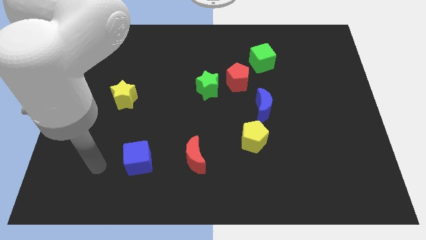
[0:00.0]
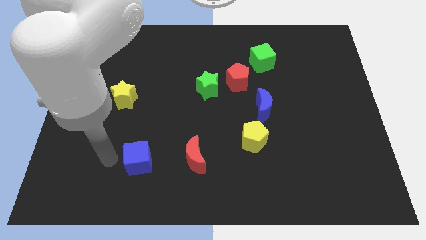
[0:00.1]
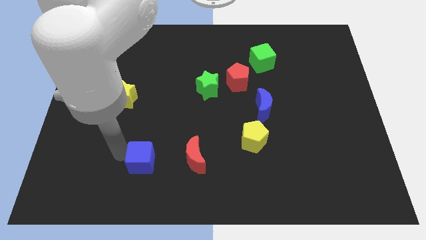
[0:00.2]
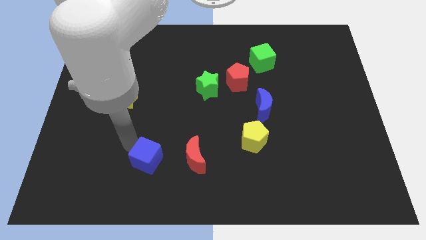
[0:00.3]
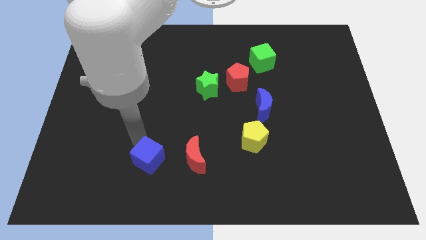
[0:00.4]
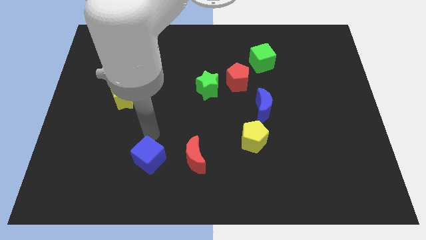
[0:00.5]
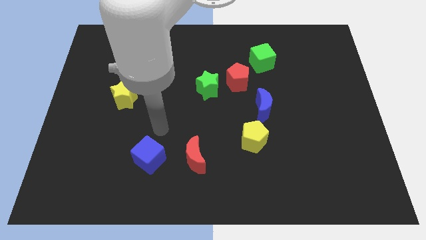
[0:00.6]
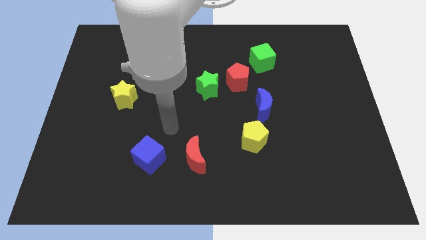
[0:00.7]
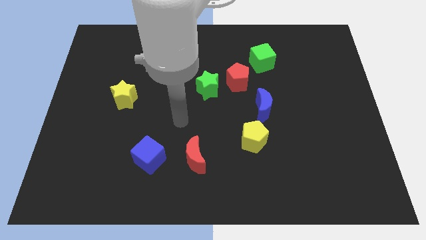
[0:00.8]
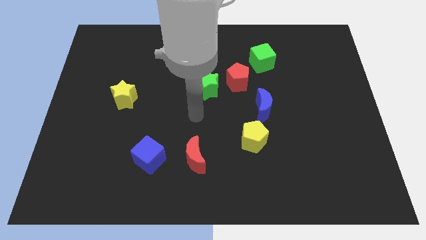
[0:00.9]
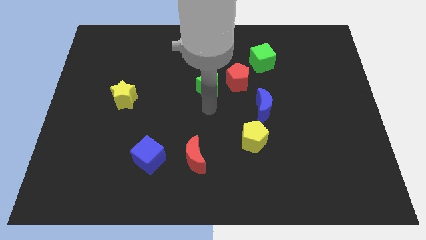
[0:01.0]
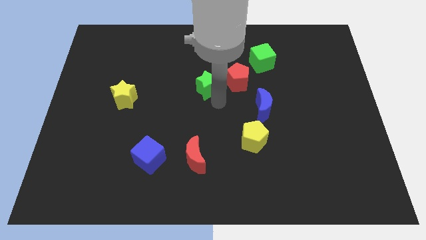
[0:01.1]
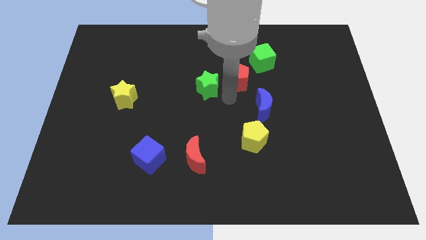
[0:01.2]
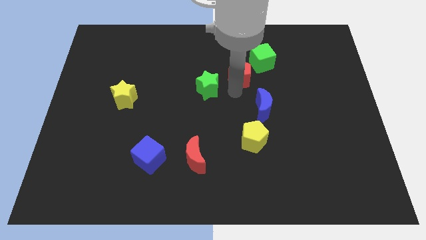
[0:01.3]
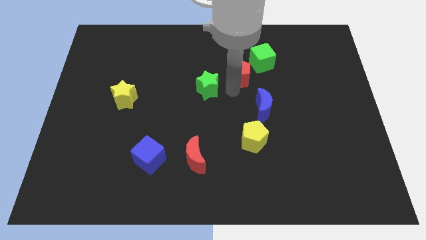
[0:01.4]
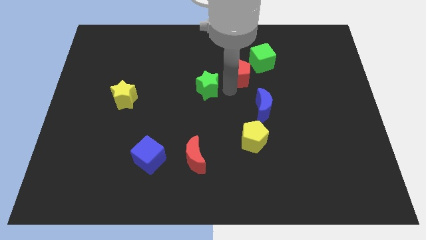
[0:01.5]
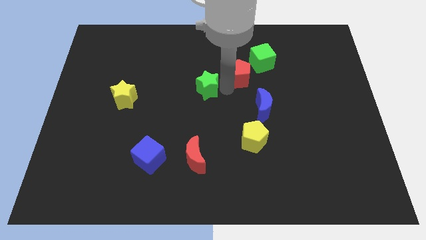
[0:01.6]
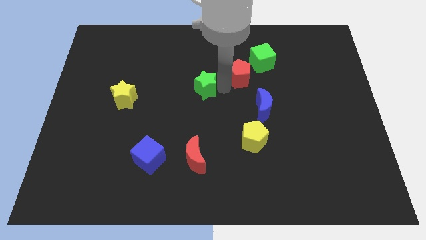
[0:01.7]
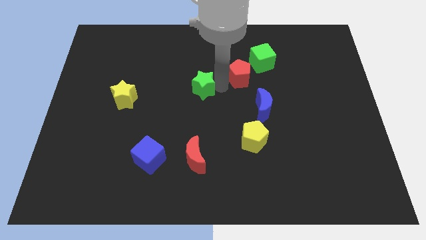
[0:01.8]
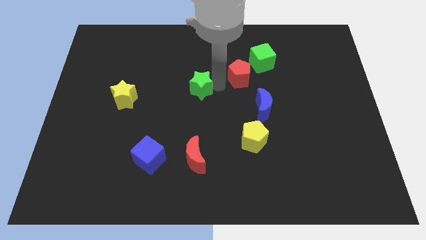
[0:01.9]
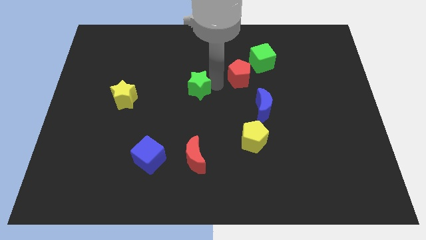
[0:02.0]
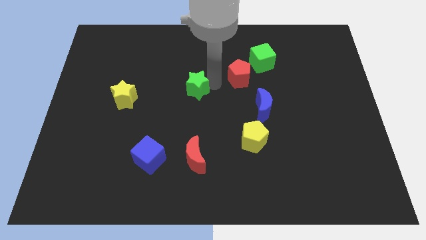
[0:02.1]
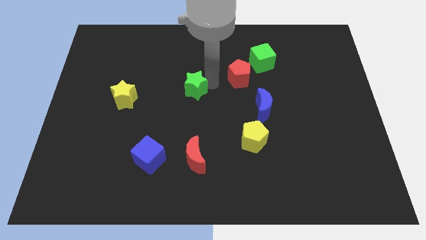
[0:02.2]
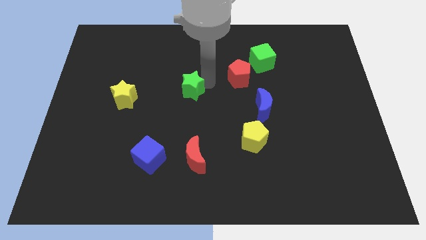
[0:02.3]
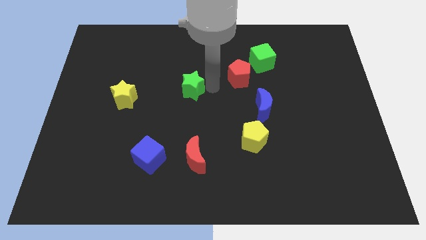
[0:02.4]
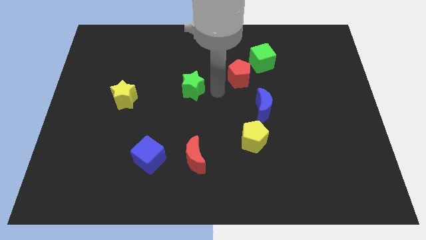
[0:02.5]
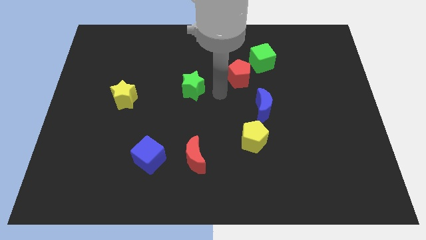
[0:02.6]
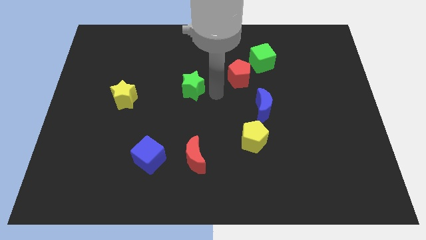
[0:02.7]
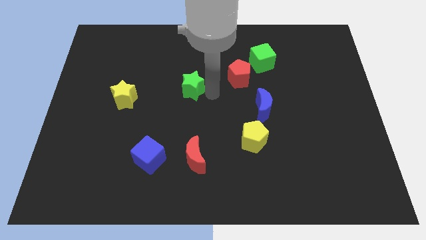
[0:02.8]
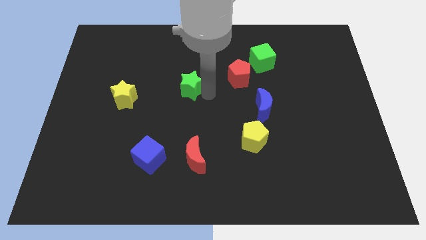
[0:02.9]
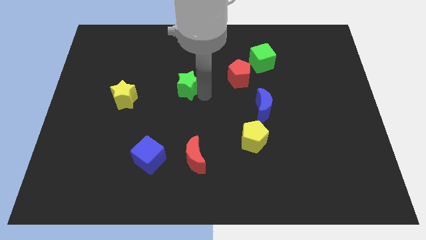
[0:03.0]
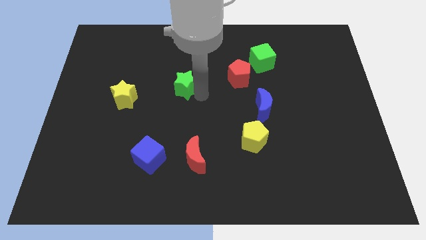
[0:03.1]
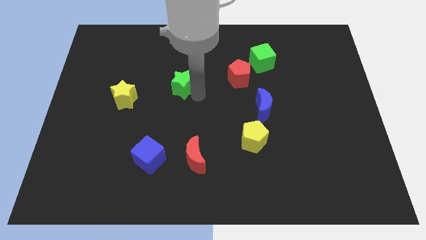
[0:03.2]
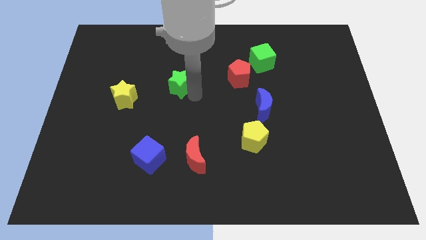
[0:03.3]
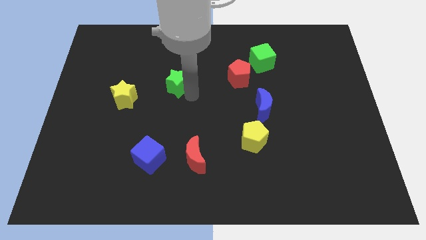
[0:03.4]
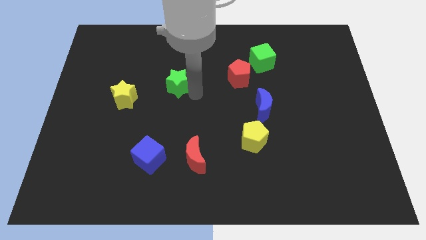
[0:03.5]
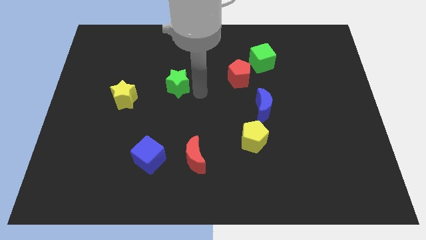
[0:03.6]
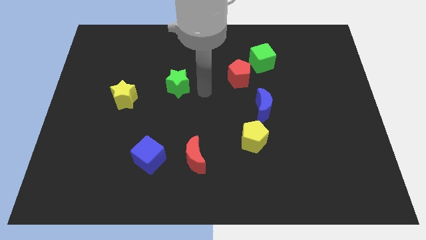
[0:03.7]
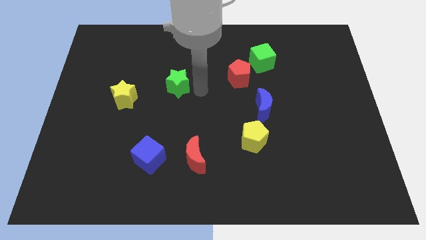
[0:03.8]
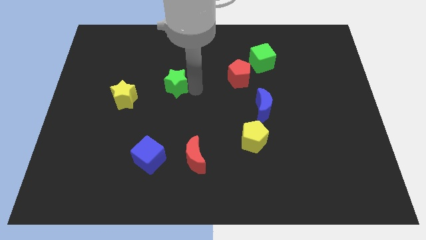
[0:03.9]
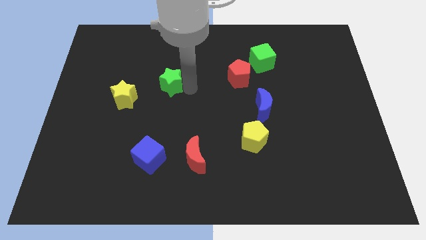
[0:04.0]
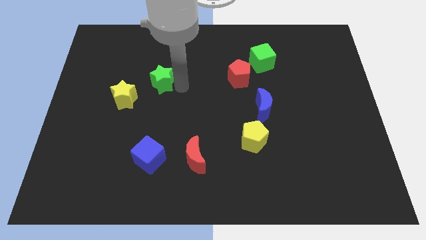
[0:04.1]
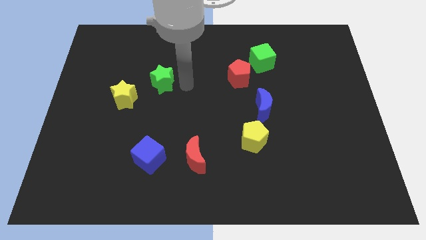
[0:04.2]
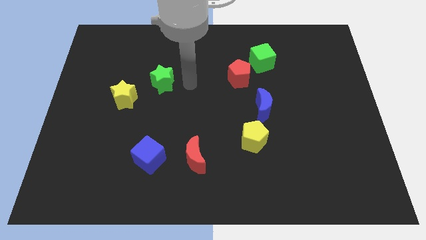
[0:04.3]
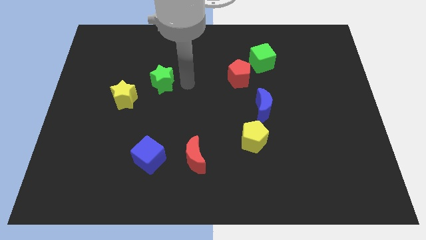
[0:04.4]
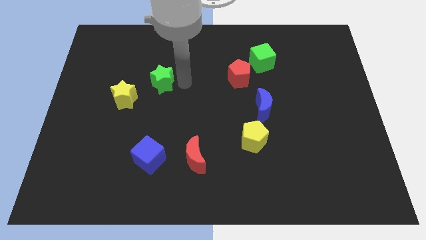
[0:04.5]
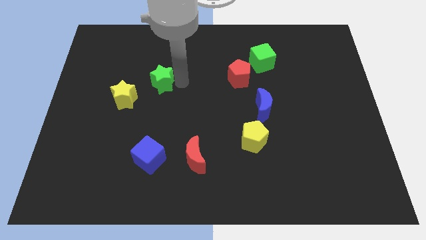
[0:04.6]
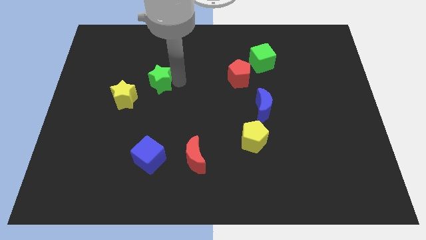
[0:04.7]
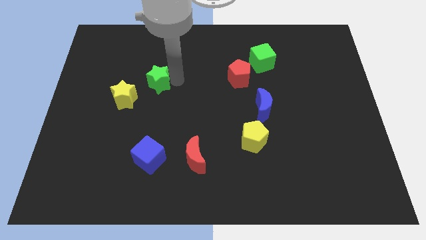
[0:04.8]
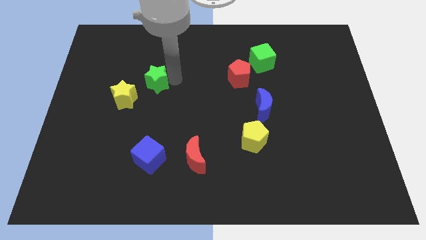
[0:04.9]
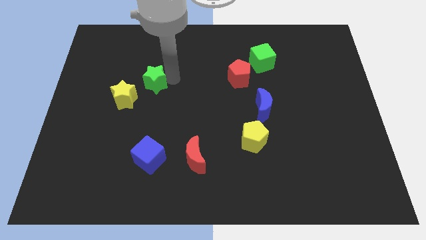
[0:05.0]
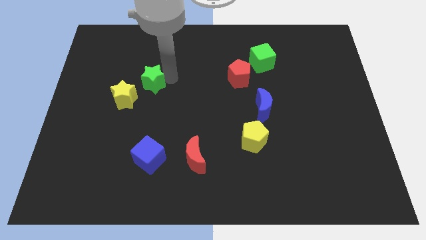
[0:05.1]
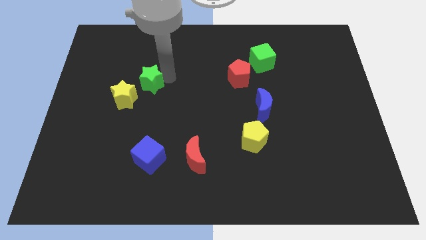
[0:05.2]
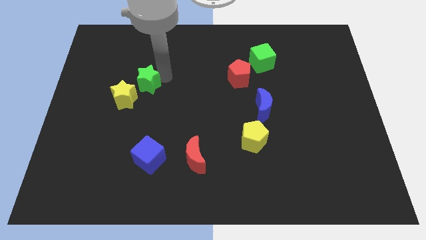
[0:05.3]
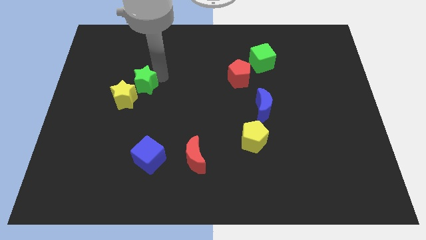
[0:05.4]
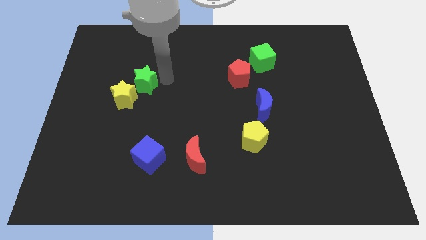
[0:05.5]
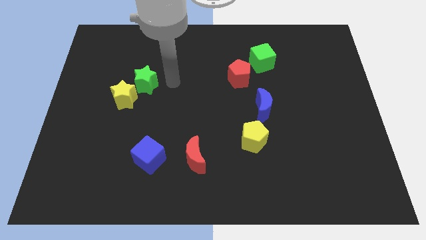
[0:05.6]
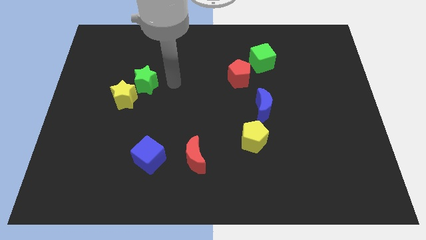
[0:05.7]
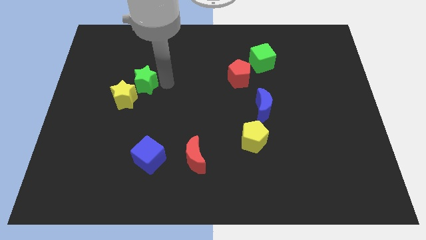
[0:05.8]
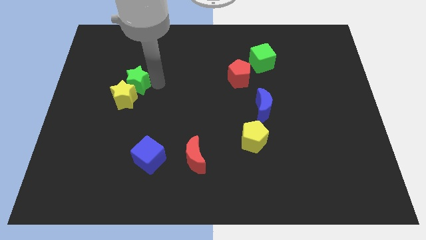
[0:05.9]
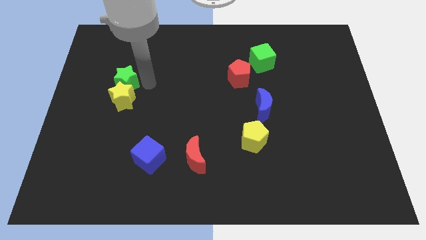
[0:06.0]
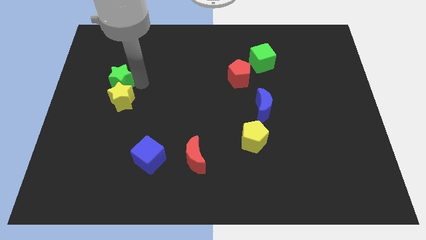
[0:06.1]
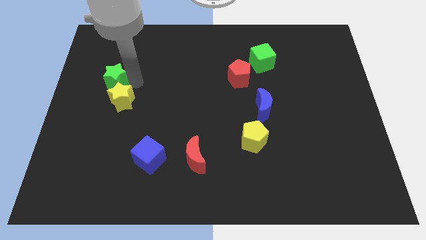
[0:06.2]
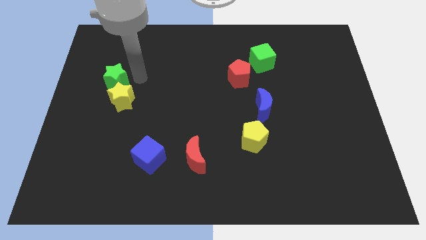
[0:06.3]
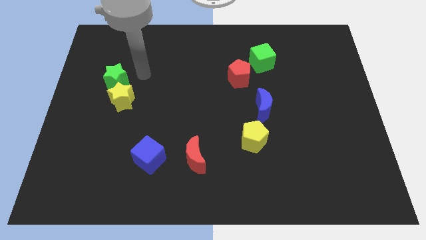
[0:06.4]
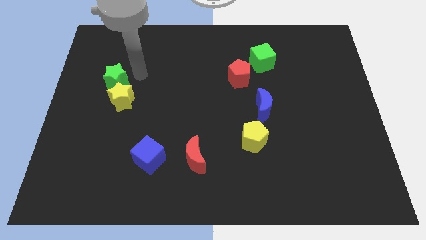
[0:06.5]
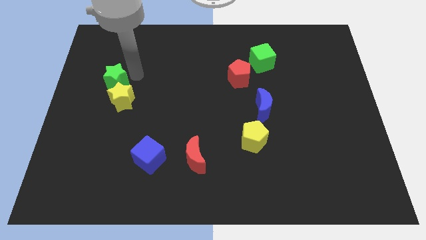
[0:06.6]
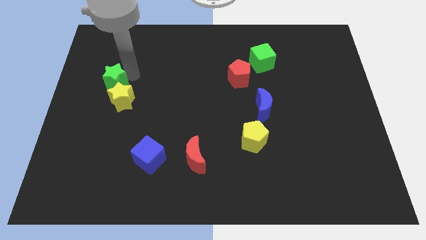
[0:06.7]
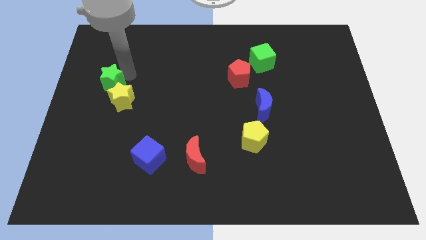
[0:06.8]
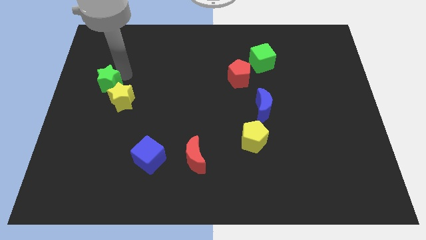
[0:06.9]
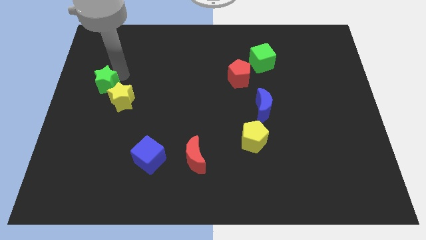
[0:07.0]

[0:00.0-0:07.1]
move the green star to the left side of the board
